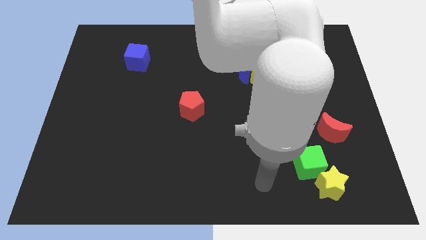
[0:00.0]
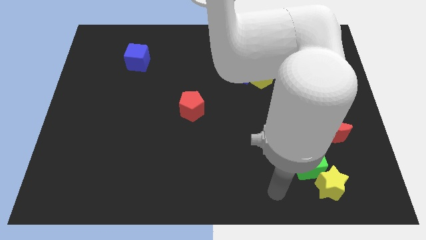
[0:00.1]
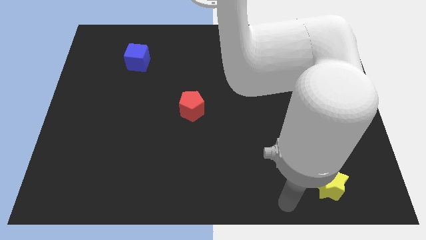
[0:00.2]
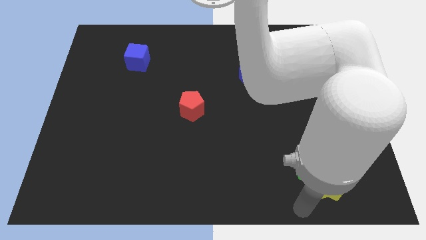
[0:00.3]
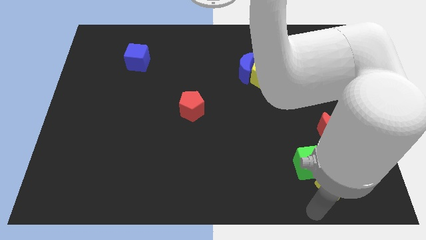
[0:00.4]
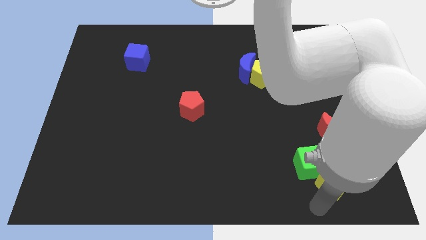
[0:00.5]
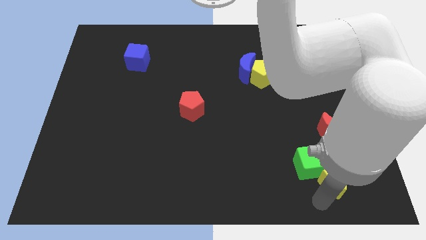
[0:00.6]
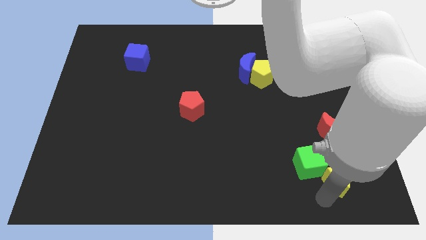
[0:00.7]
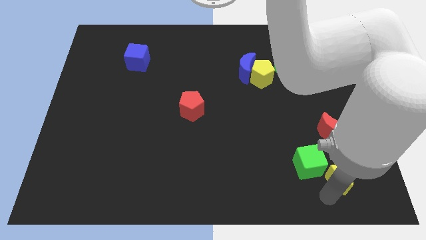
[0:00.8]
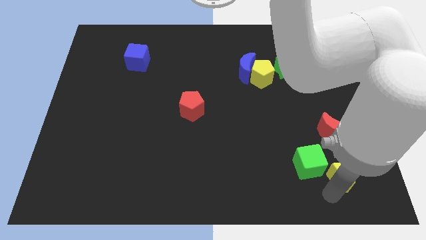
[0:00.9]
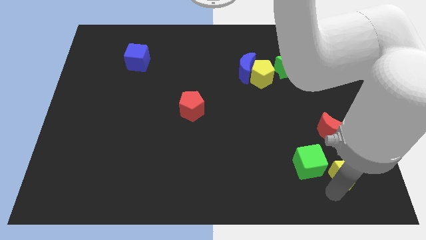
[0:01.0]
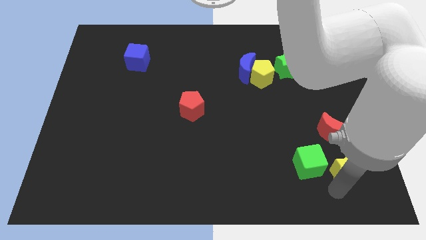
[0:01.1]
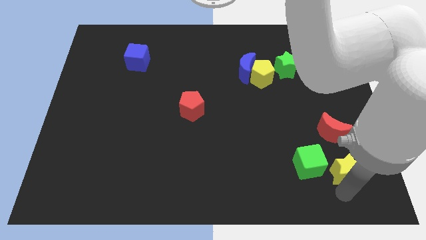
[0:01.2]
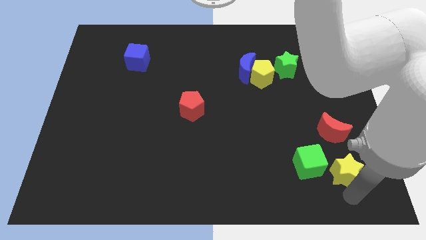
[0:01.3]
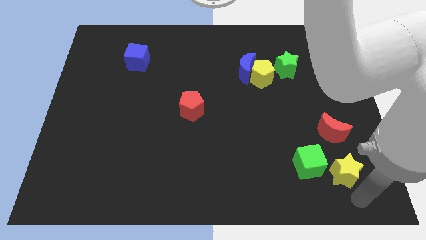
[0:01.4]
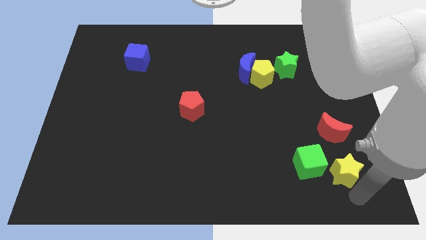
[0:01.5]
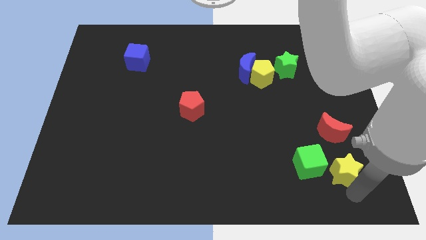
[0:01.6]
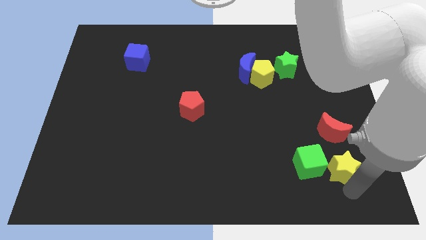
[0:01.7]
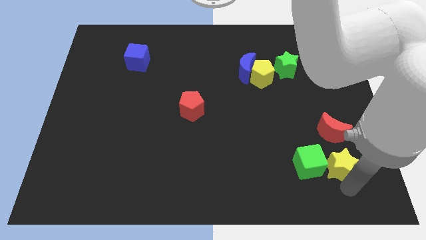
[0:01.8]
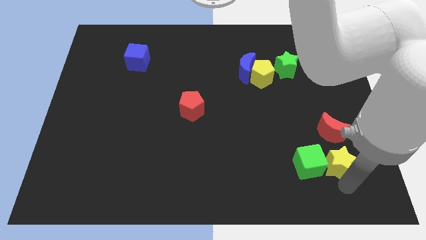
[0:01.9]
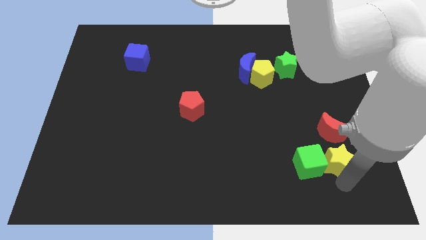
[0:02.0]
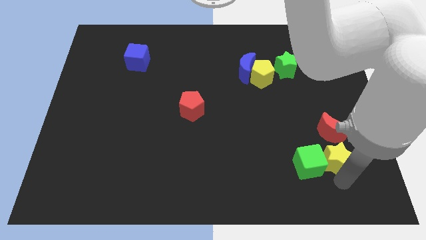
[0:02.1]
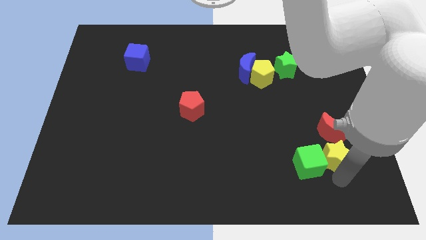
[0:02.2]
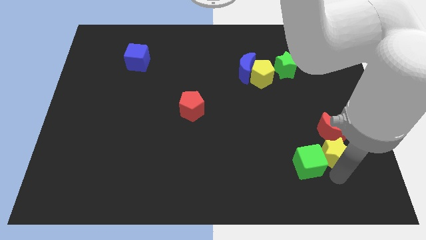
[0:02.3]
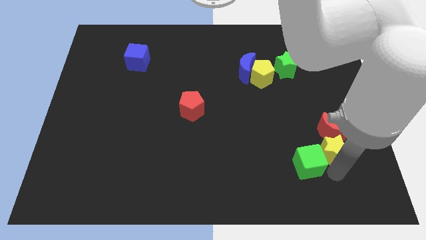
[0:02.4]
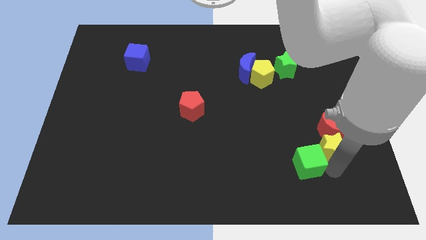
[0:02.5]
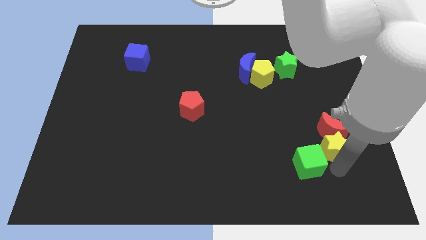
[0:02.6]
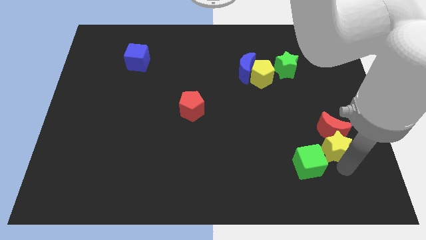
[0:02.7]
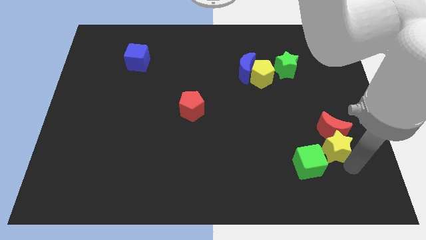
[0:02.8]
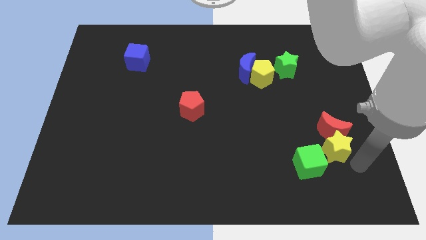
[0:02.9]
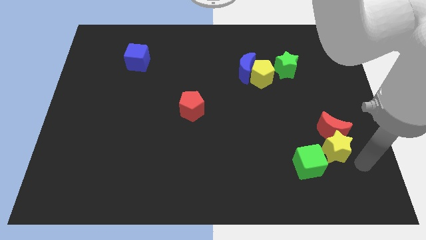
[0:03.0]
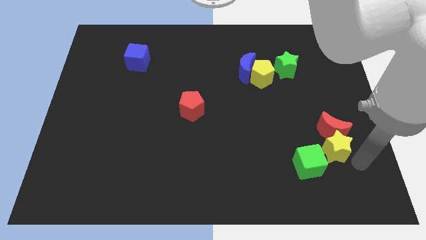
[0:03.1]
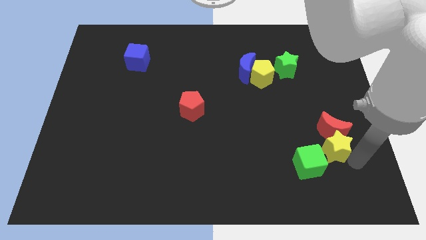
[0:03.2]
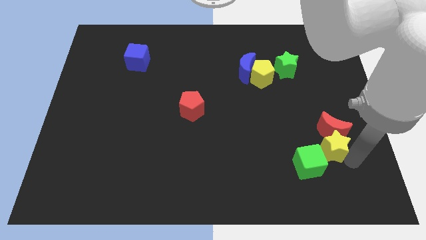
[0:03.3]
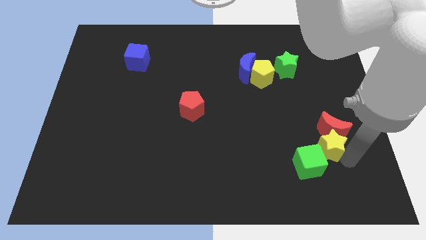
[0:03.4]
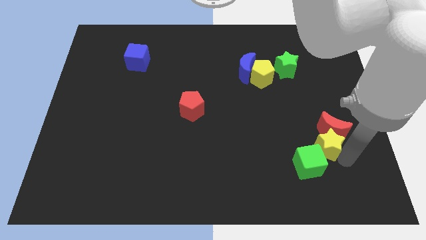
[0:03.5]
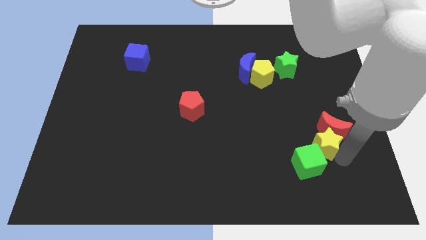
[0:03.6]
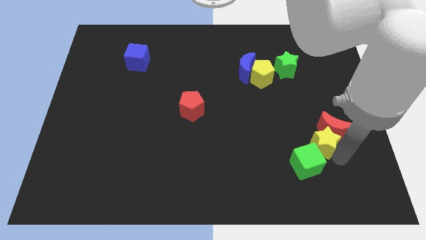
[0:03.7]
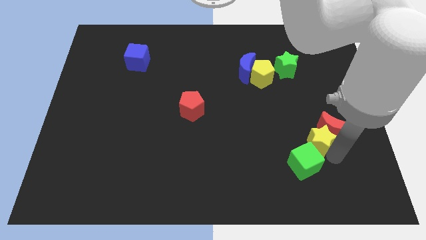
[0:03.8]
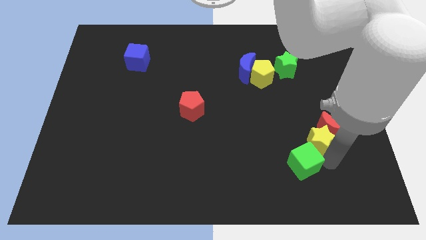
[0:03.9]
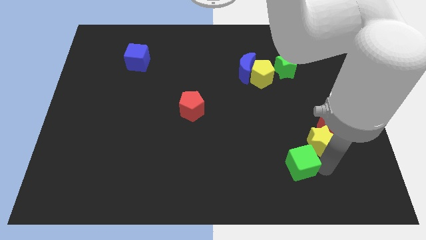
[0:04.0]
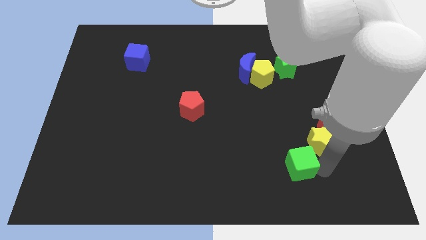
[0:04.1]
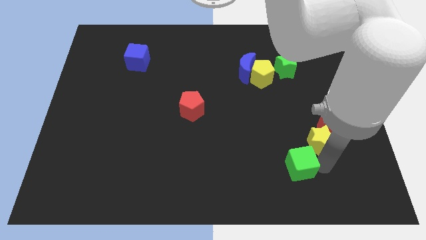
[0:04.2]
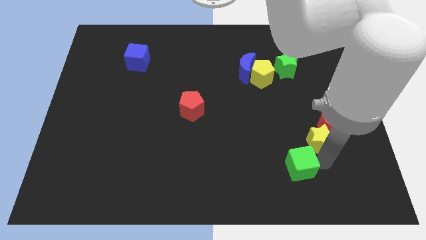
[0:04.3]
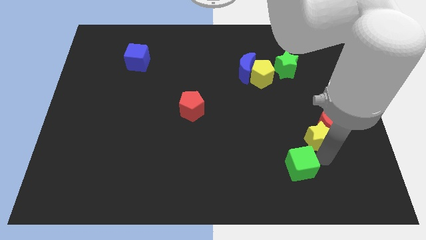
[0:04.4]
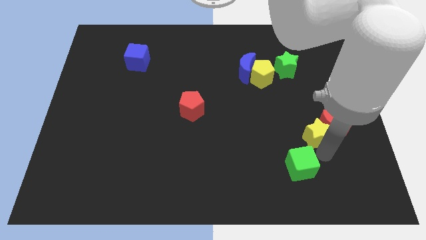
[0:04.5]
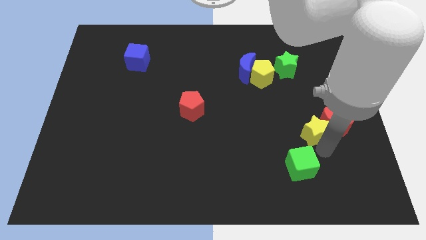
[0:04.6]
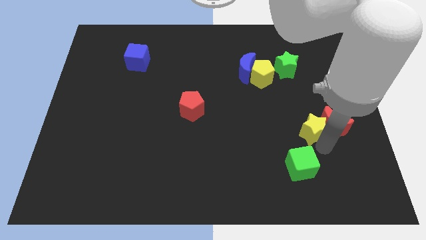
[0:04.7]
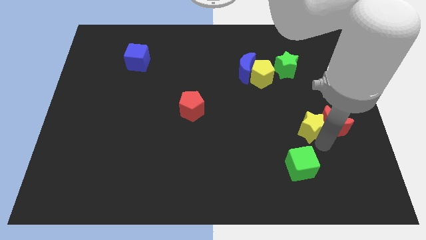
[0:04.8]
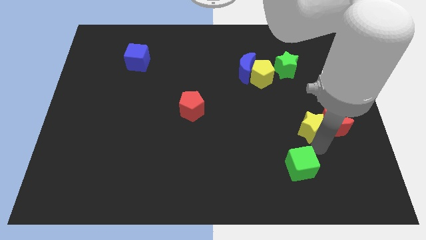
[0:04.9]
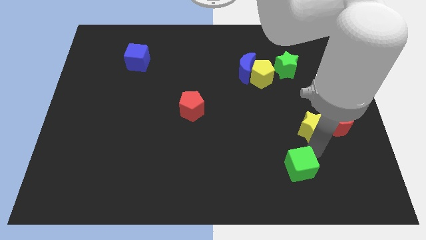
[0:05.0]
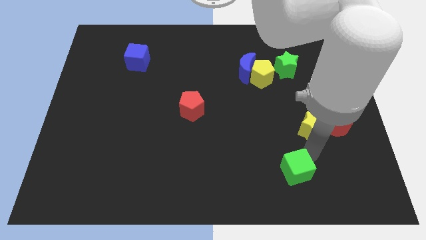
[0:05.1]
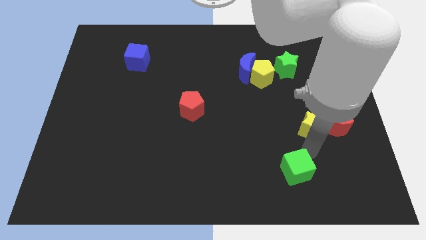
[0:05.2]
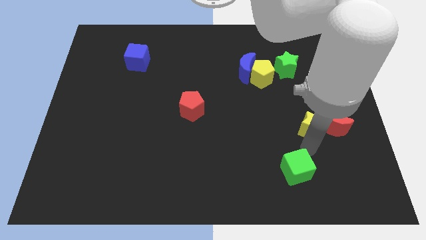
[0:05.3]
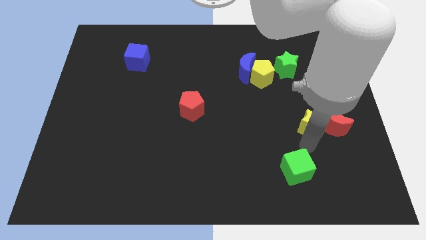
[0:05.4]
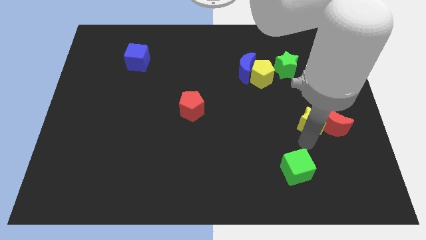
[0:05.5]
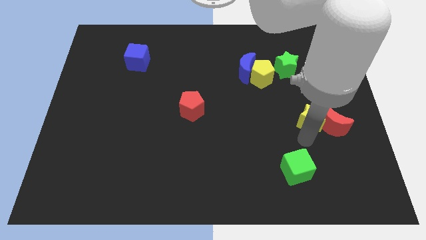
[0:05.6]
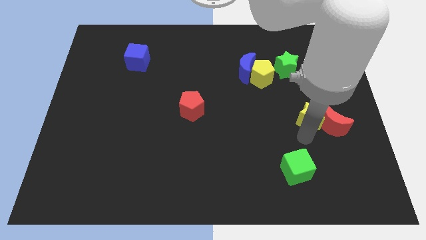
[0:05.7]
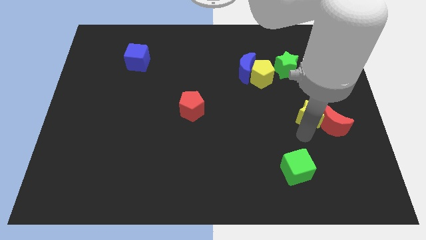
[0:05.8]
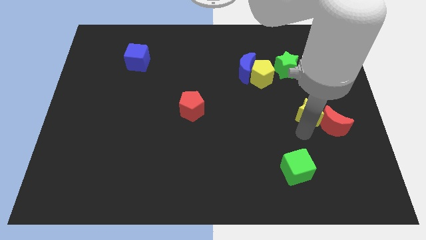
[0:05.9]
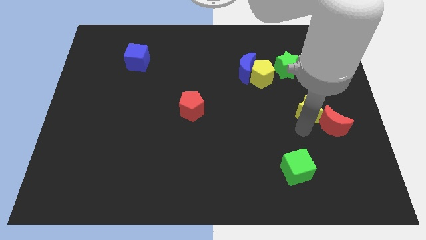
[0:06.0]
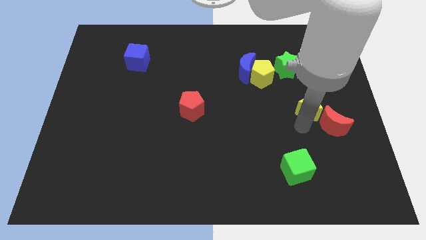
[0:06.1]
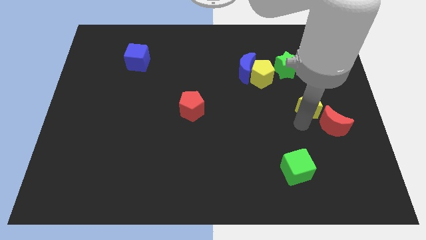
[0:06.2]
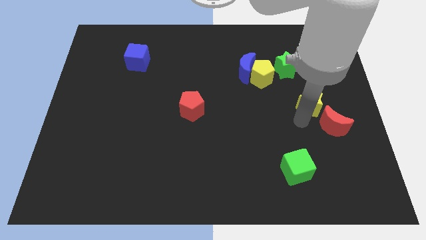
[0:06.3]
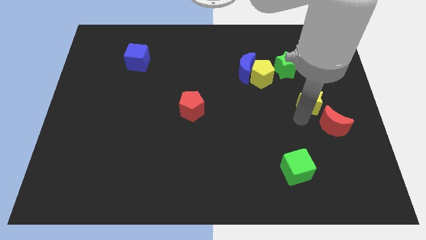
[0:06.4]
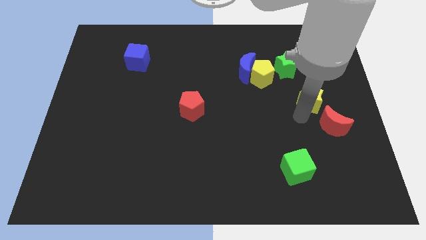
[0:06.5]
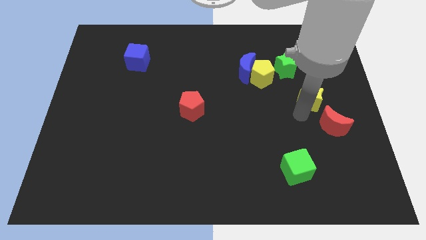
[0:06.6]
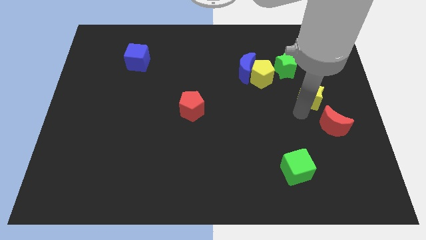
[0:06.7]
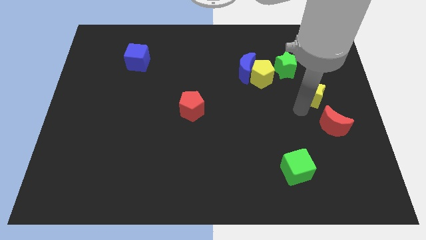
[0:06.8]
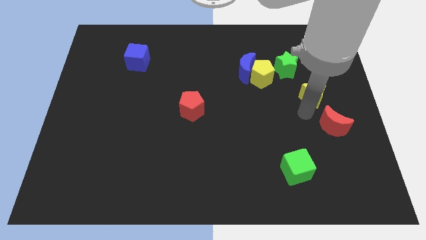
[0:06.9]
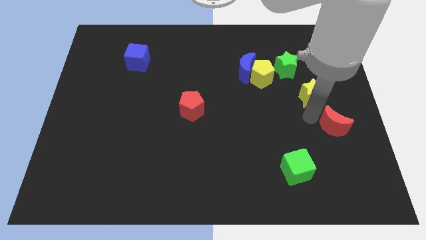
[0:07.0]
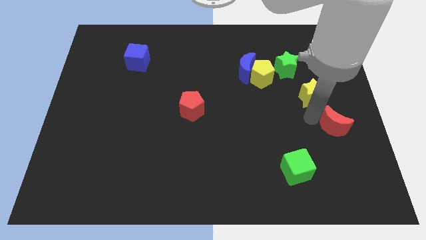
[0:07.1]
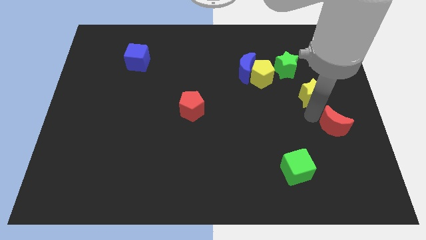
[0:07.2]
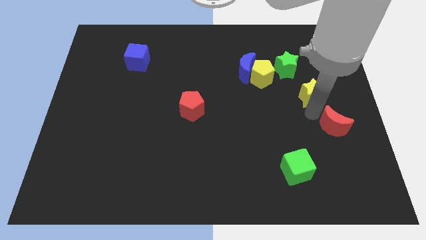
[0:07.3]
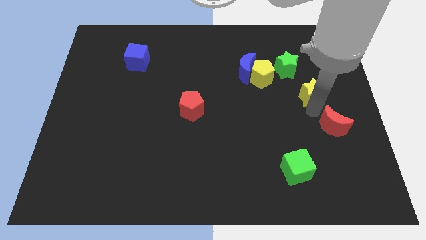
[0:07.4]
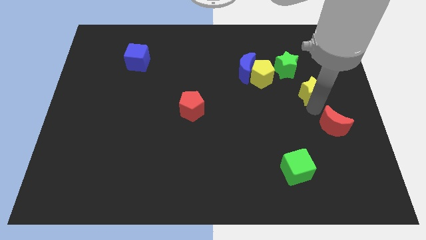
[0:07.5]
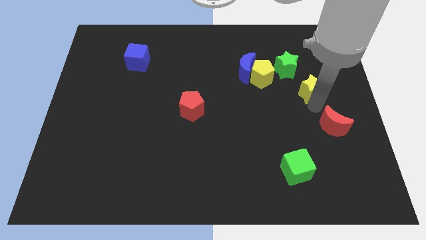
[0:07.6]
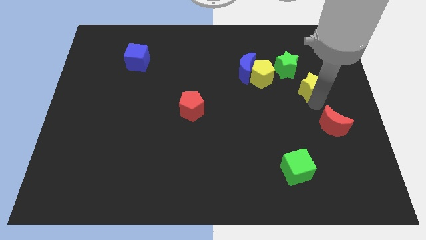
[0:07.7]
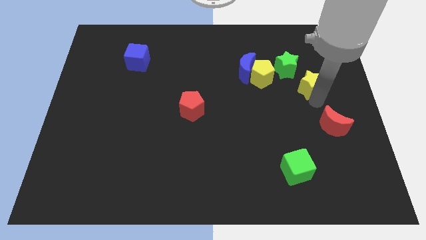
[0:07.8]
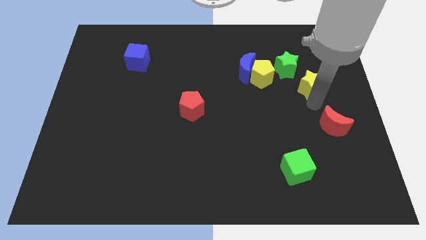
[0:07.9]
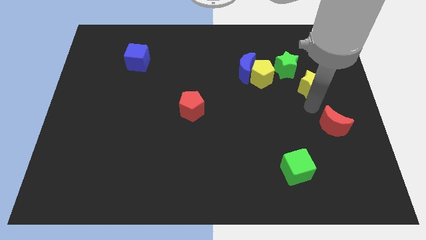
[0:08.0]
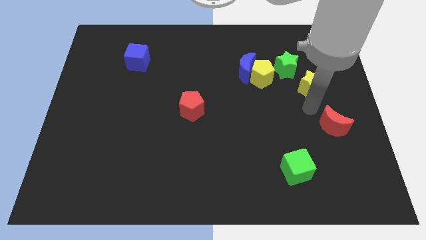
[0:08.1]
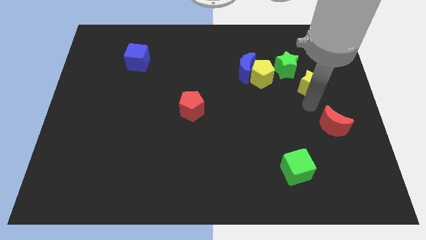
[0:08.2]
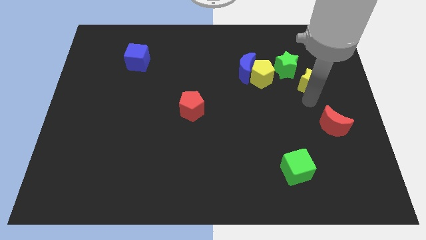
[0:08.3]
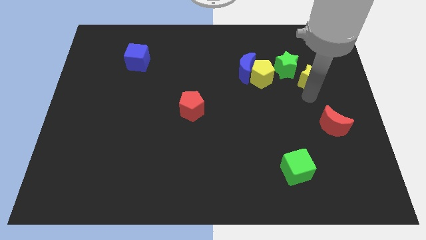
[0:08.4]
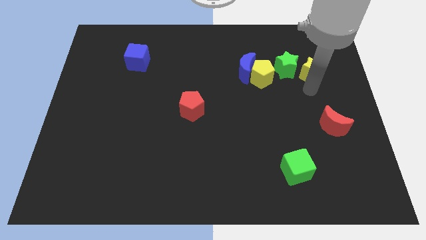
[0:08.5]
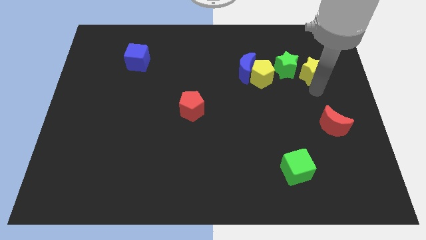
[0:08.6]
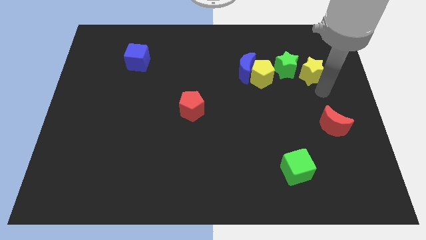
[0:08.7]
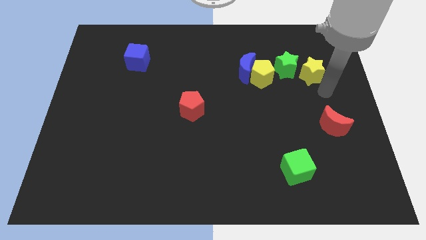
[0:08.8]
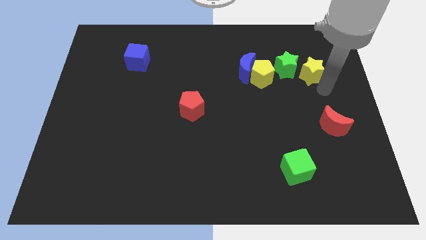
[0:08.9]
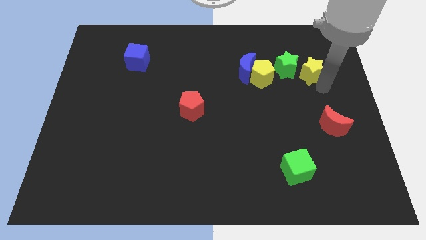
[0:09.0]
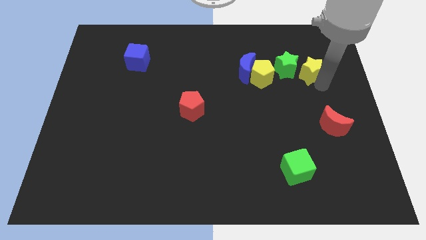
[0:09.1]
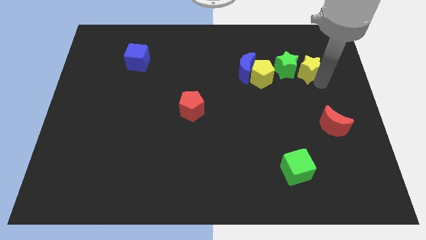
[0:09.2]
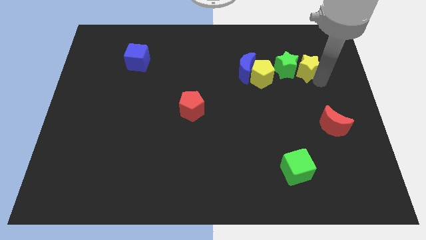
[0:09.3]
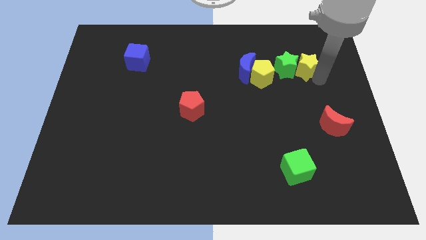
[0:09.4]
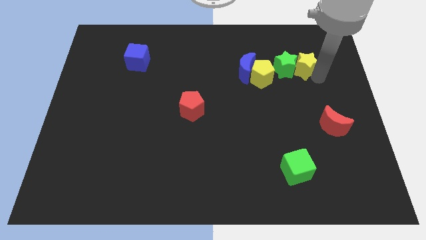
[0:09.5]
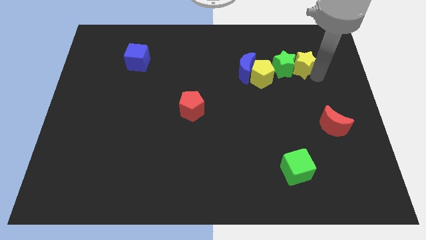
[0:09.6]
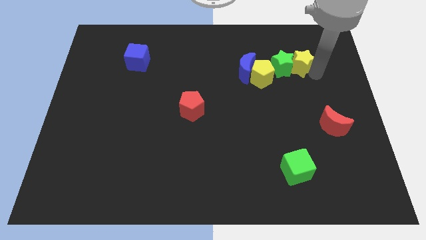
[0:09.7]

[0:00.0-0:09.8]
slide the yellow star diagonally up and to the right of the yellow pentagon
